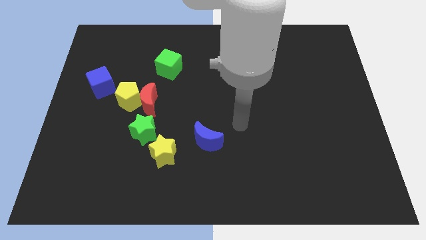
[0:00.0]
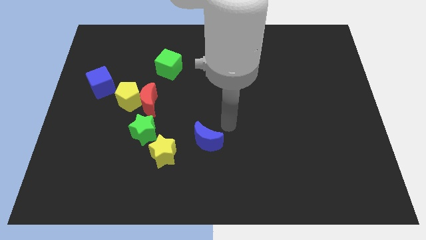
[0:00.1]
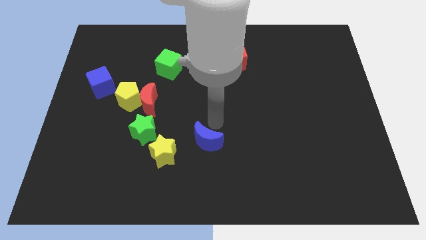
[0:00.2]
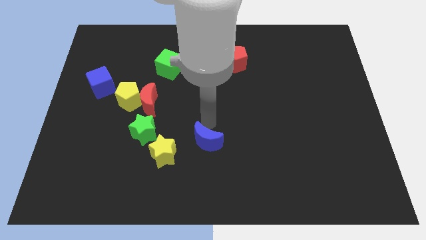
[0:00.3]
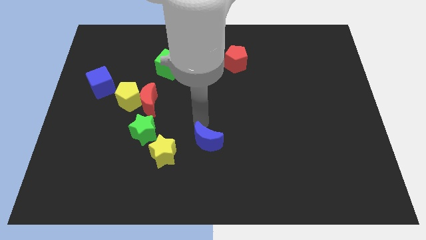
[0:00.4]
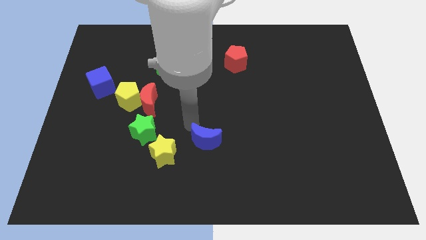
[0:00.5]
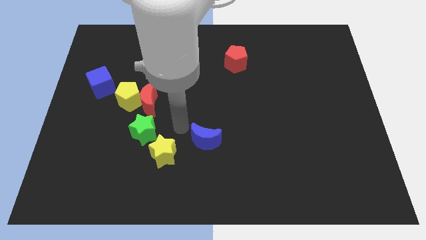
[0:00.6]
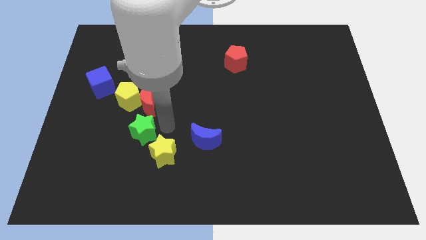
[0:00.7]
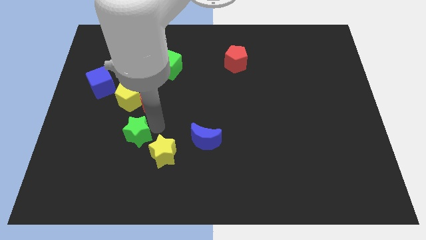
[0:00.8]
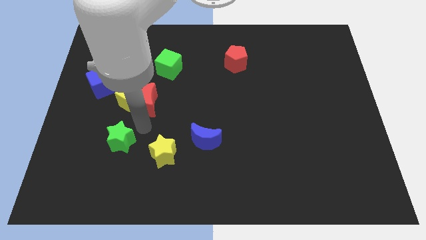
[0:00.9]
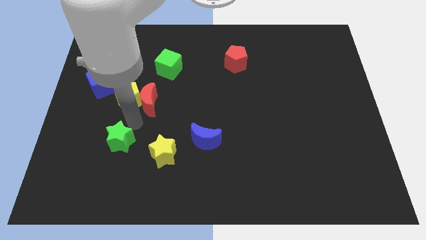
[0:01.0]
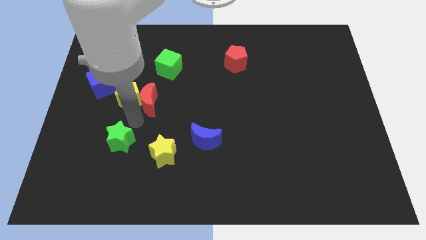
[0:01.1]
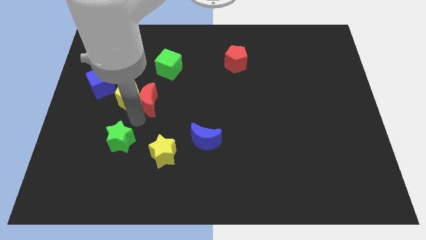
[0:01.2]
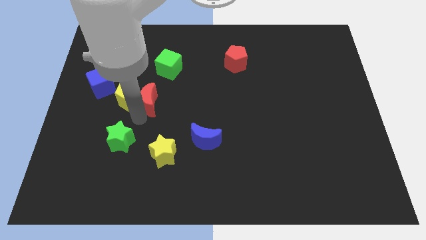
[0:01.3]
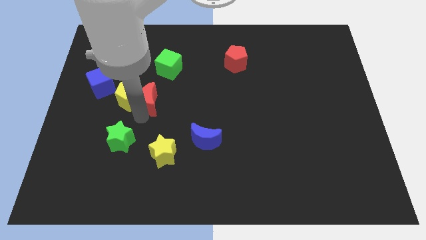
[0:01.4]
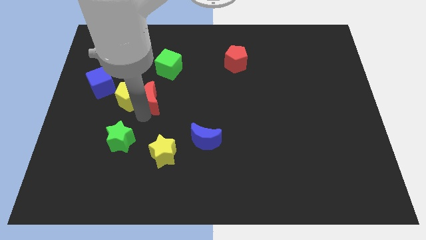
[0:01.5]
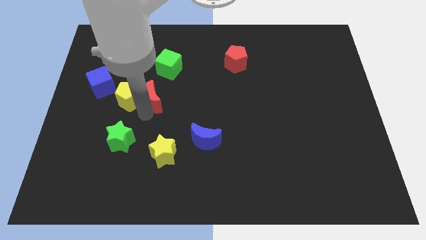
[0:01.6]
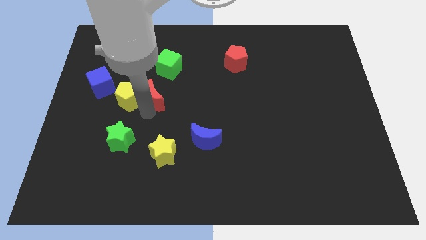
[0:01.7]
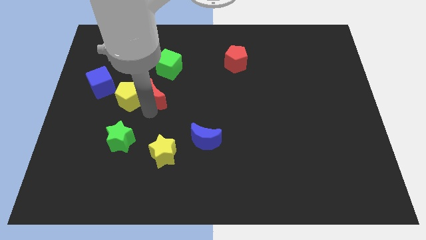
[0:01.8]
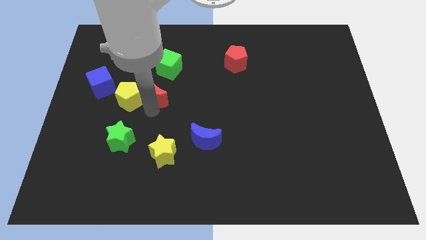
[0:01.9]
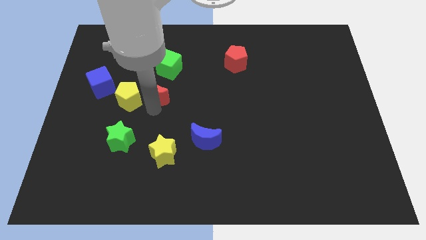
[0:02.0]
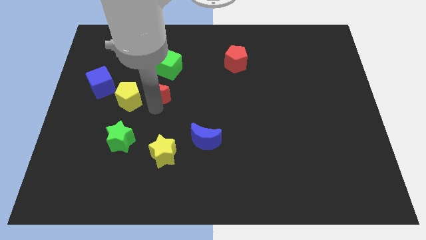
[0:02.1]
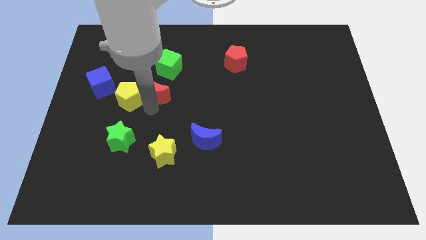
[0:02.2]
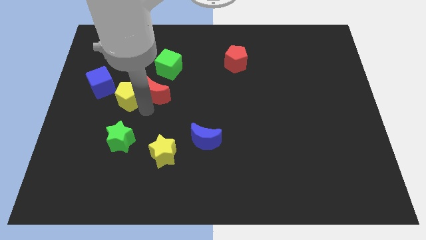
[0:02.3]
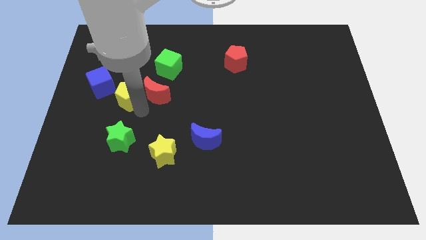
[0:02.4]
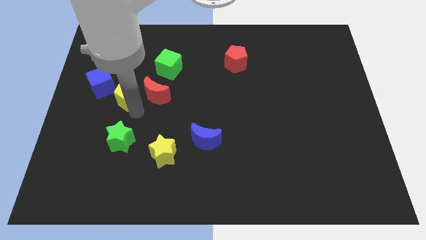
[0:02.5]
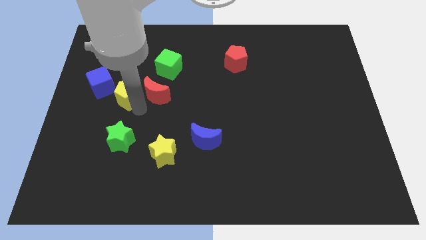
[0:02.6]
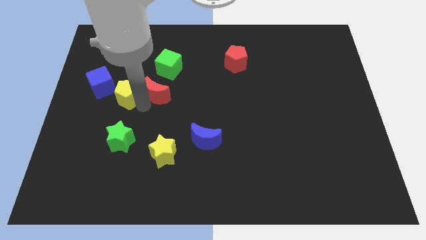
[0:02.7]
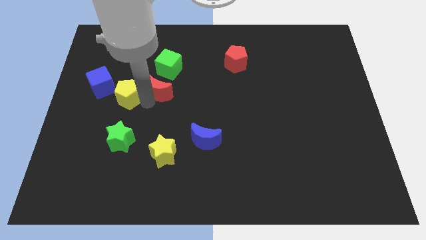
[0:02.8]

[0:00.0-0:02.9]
separate the red moon from the yellow pentagon and green star

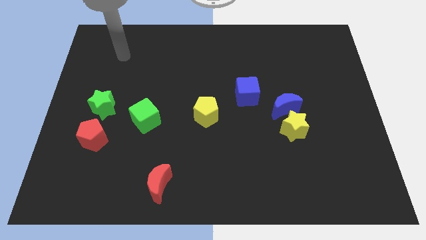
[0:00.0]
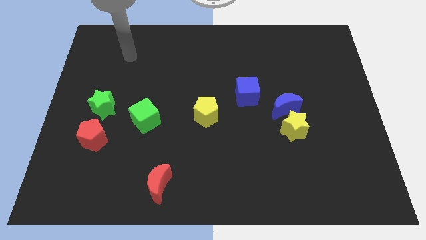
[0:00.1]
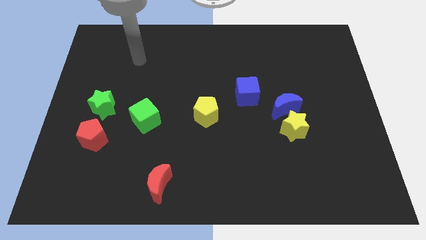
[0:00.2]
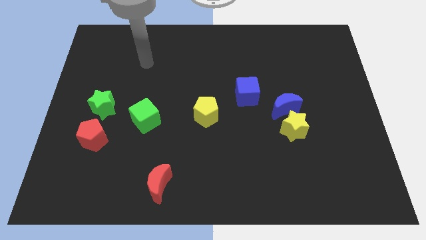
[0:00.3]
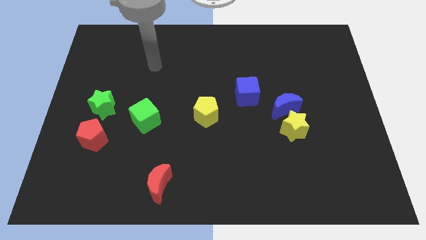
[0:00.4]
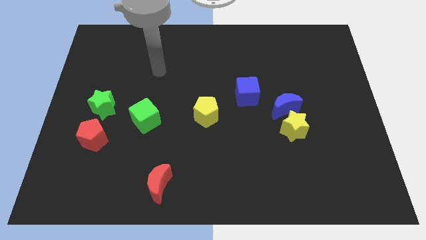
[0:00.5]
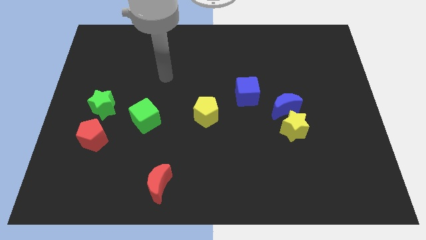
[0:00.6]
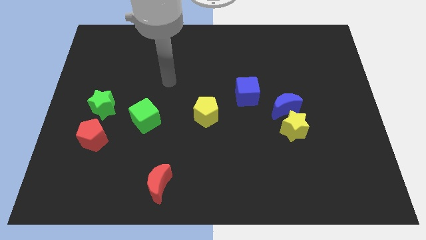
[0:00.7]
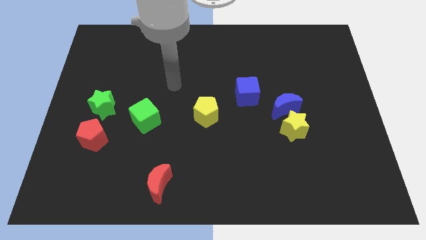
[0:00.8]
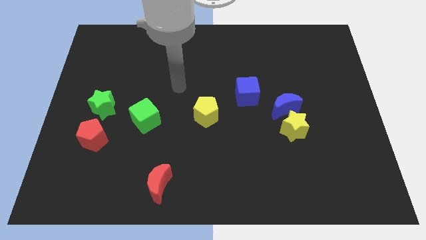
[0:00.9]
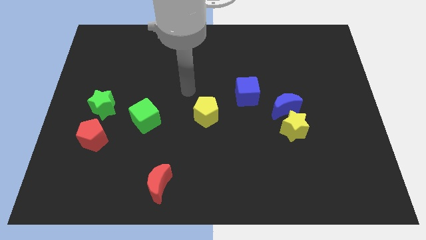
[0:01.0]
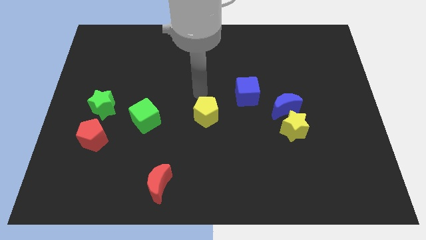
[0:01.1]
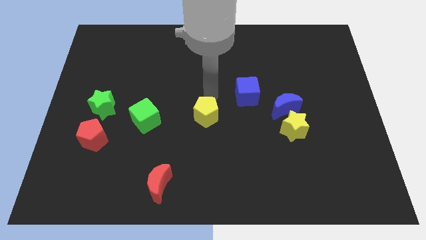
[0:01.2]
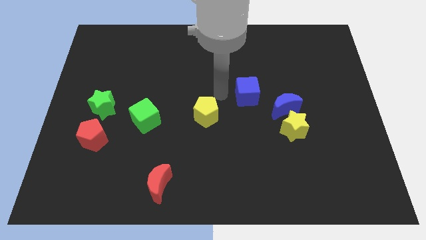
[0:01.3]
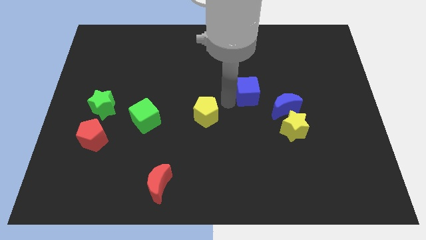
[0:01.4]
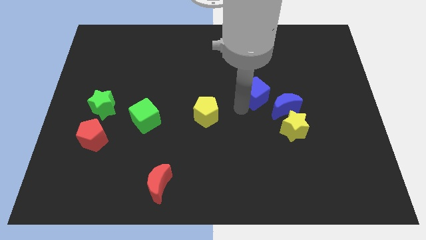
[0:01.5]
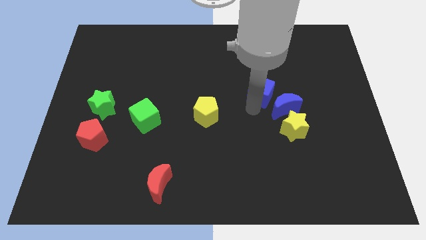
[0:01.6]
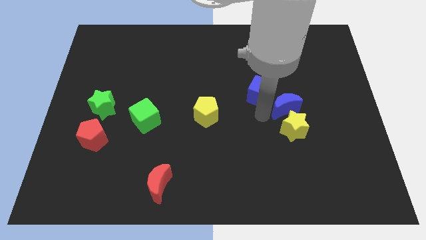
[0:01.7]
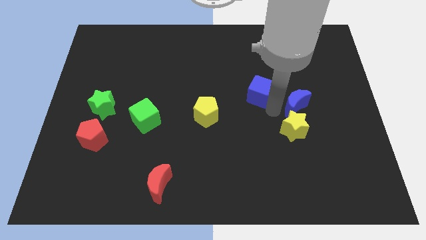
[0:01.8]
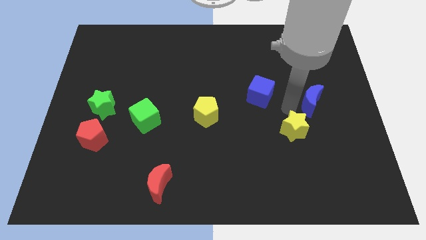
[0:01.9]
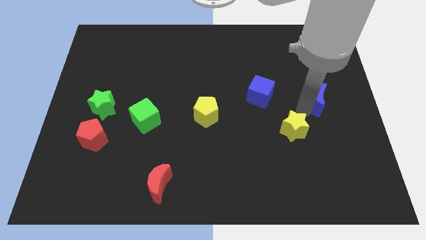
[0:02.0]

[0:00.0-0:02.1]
separate the yellow star from the blue moon

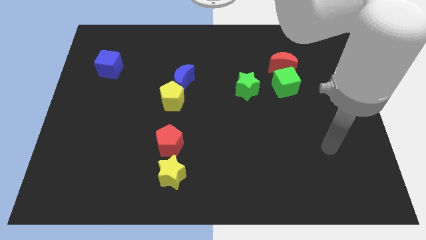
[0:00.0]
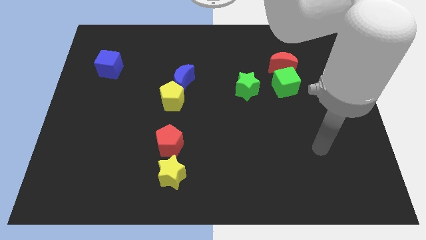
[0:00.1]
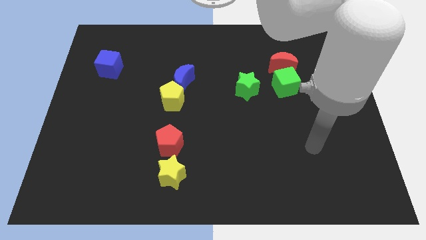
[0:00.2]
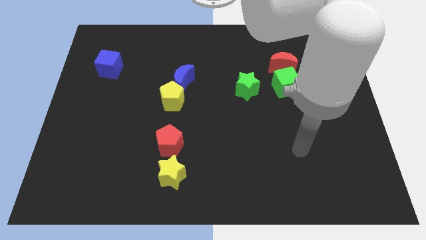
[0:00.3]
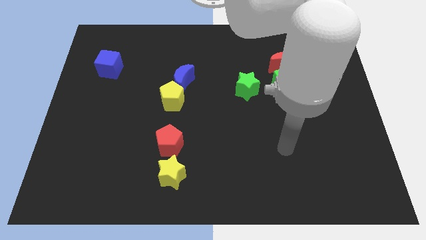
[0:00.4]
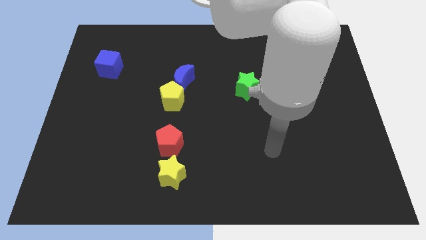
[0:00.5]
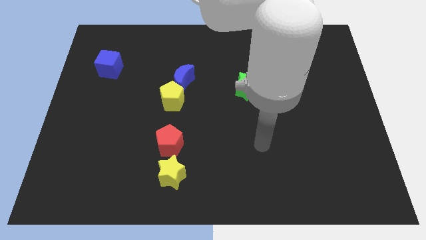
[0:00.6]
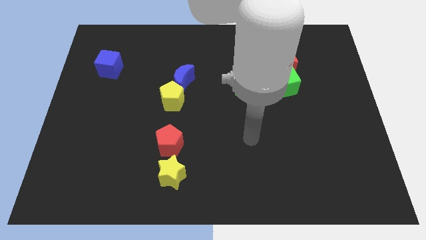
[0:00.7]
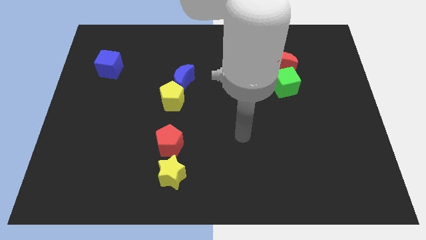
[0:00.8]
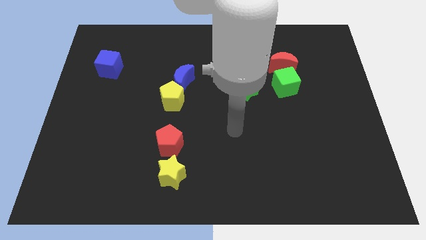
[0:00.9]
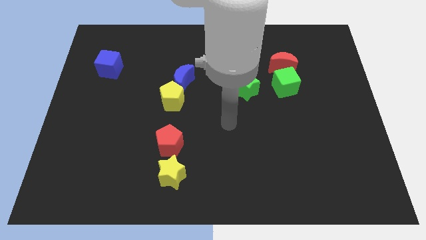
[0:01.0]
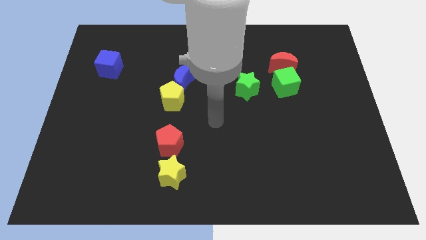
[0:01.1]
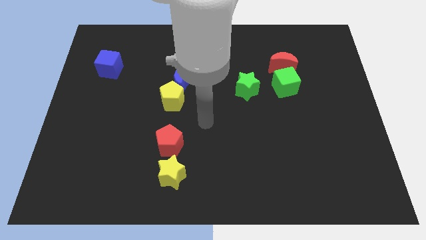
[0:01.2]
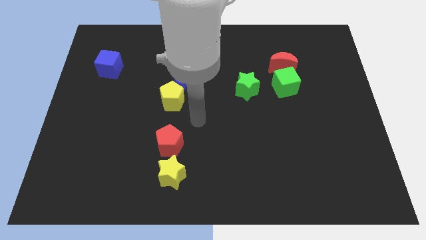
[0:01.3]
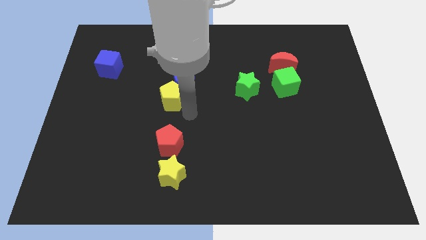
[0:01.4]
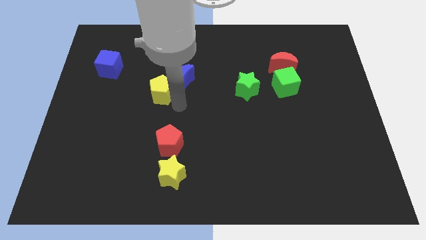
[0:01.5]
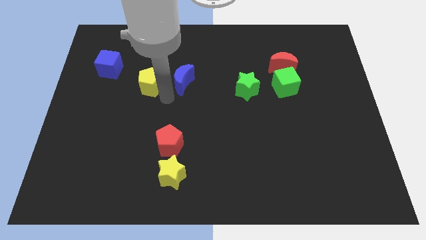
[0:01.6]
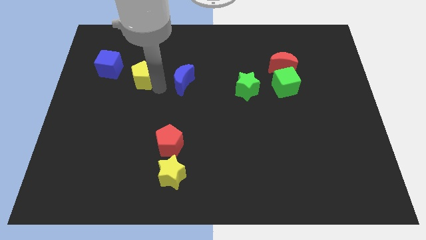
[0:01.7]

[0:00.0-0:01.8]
move the blue moon away from the yellow pentagon

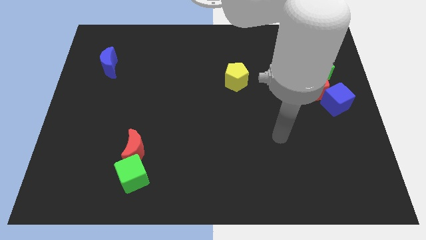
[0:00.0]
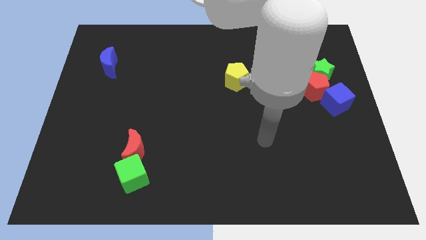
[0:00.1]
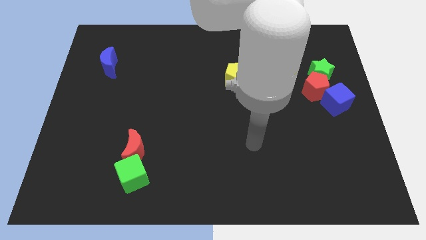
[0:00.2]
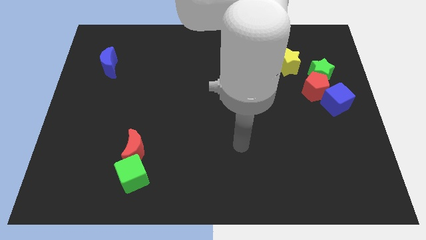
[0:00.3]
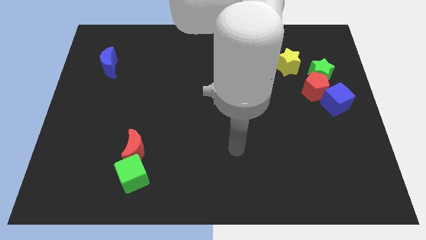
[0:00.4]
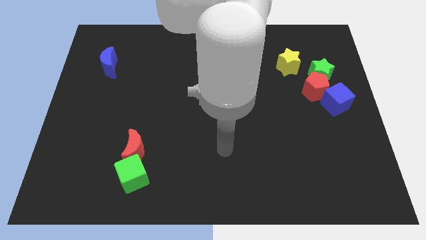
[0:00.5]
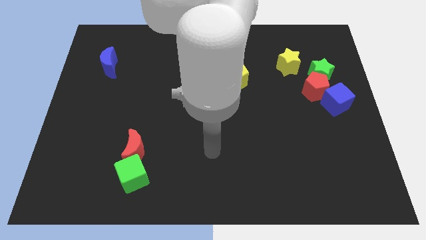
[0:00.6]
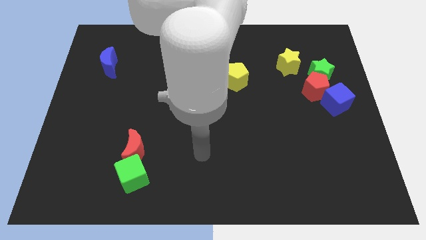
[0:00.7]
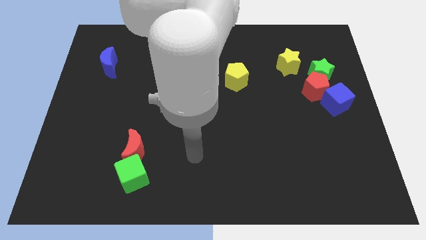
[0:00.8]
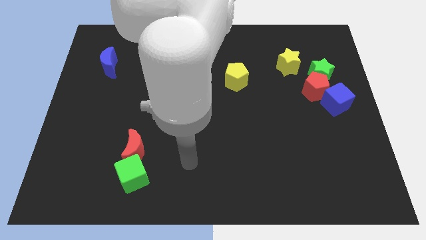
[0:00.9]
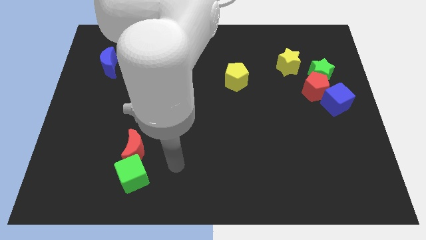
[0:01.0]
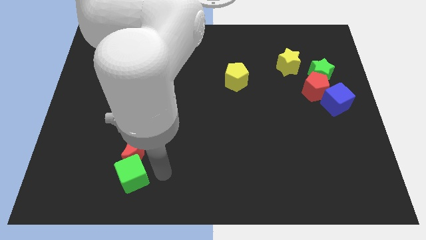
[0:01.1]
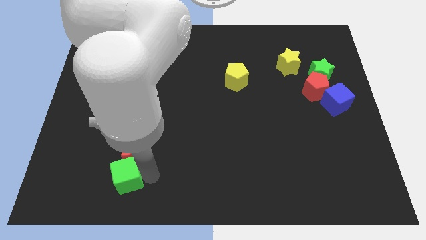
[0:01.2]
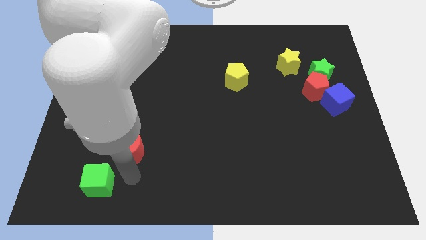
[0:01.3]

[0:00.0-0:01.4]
separate the red moon from the green cube

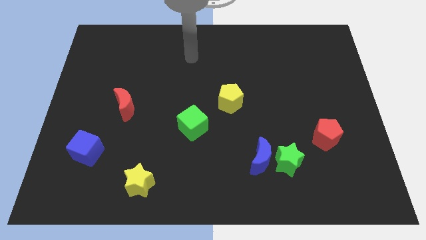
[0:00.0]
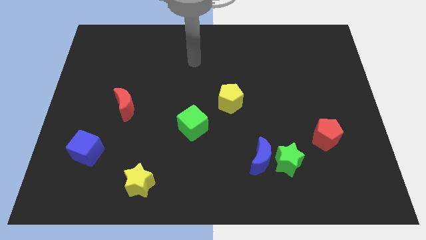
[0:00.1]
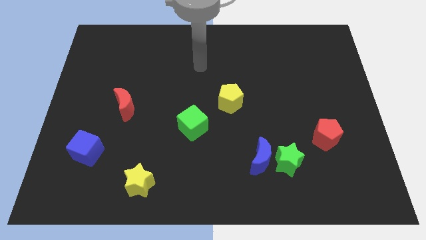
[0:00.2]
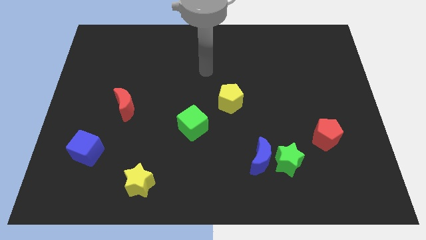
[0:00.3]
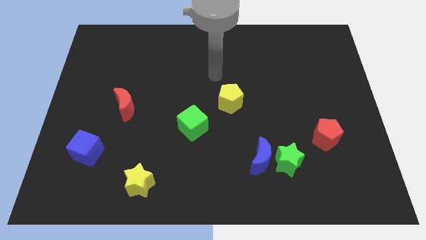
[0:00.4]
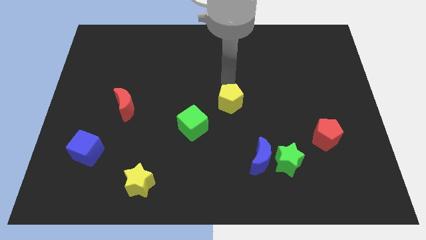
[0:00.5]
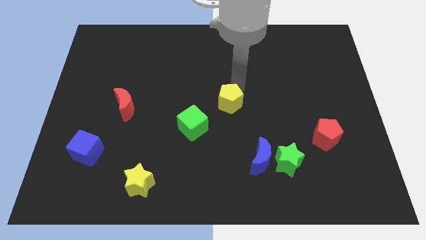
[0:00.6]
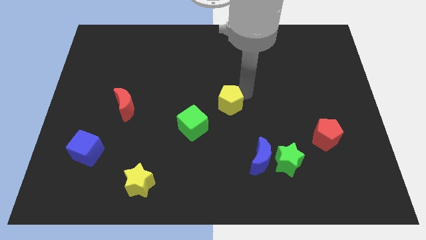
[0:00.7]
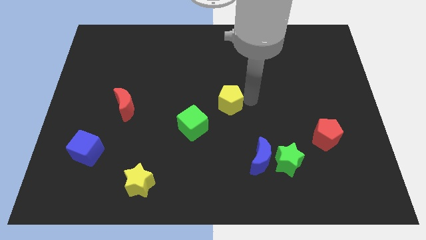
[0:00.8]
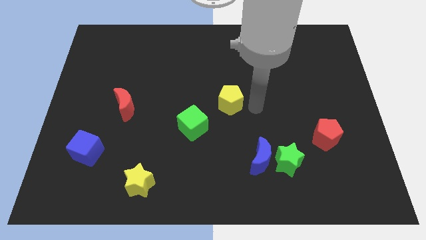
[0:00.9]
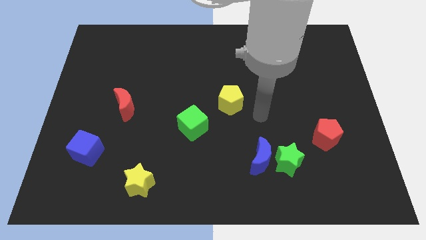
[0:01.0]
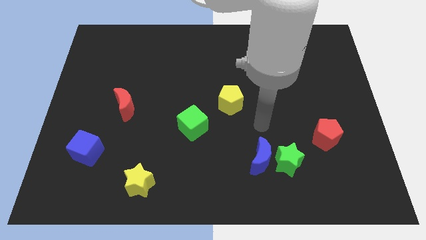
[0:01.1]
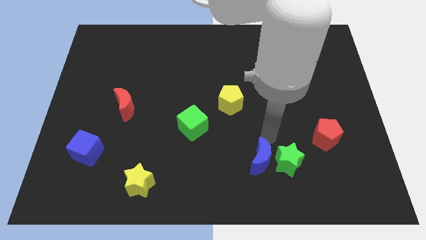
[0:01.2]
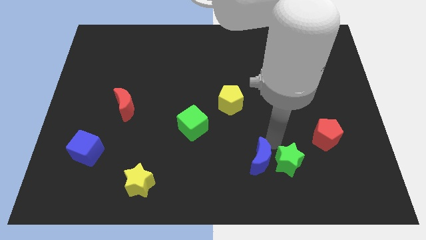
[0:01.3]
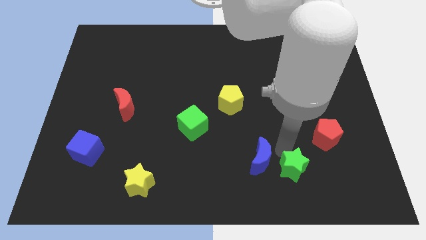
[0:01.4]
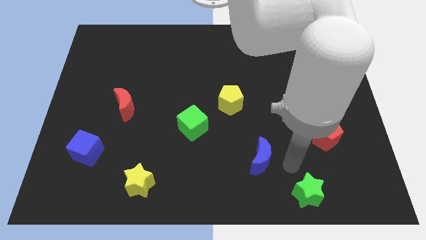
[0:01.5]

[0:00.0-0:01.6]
pull the blue moon apart from the green star
